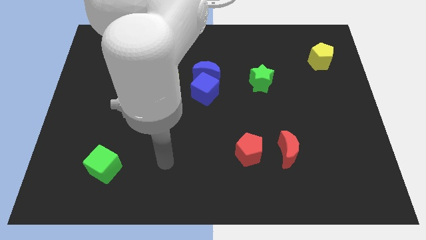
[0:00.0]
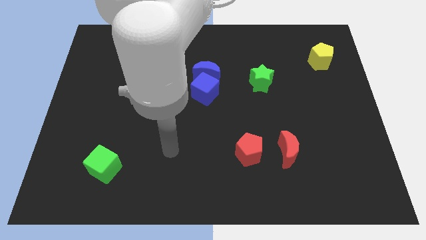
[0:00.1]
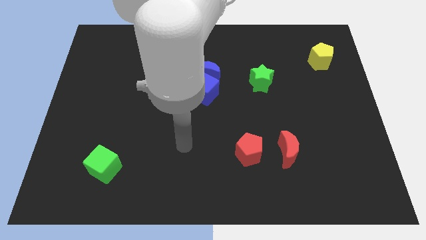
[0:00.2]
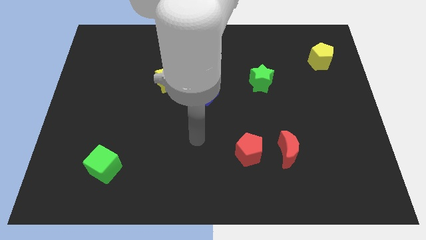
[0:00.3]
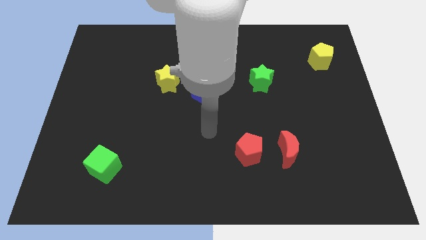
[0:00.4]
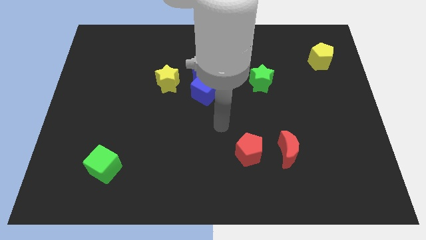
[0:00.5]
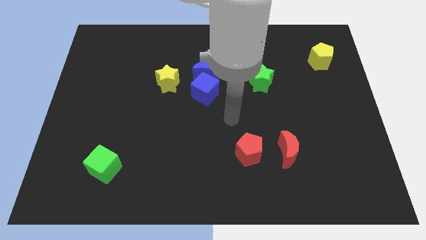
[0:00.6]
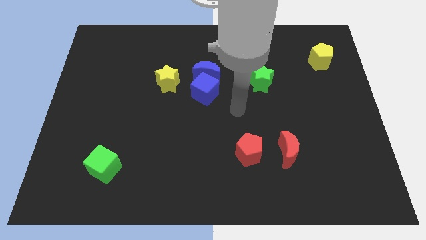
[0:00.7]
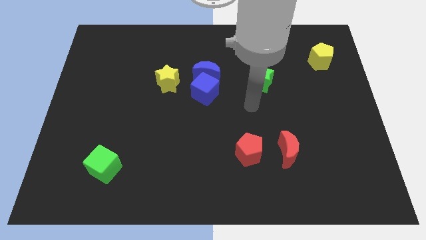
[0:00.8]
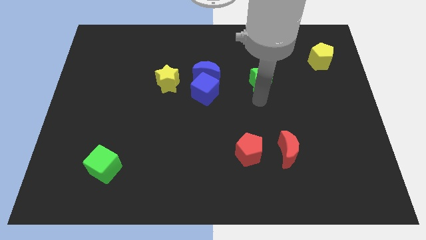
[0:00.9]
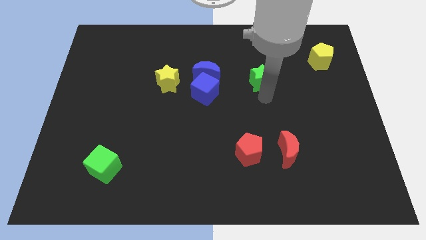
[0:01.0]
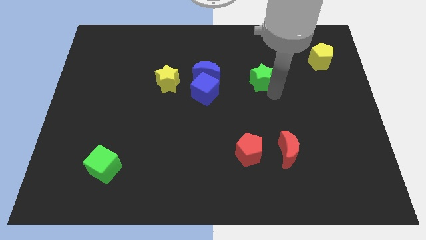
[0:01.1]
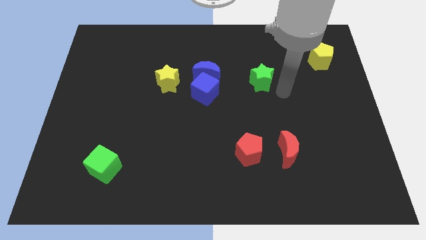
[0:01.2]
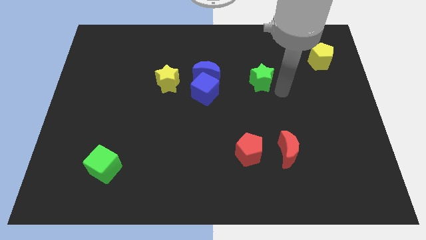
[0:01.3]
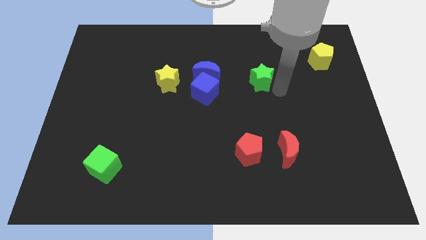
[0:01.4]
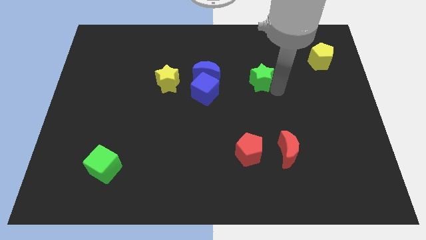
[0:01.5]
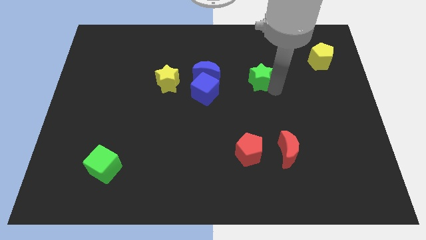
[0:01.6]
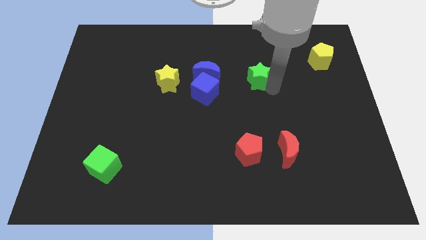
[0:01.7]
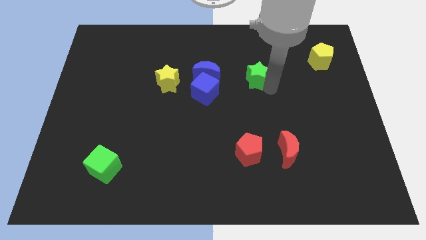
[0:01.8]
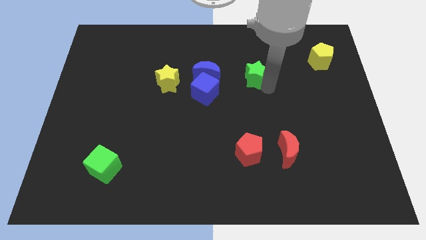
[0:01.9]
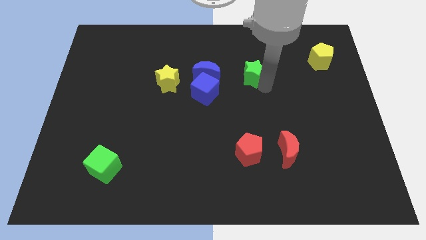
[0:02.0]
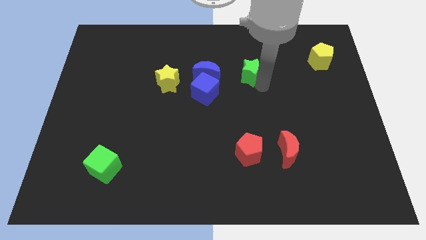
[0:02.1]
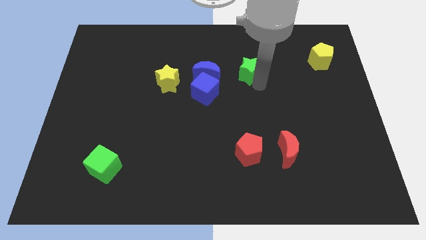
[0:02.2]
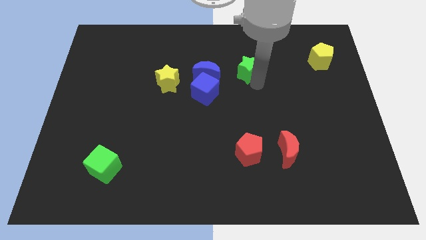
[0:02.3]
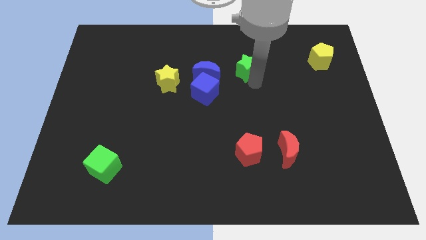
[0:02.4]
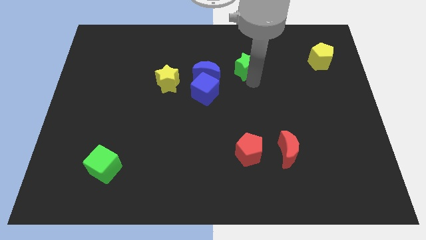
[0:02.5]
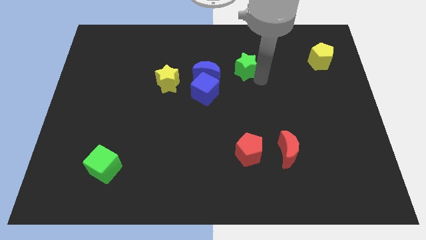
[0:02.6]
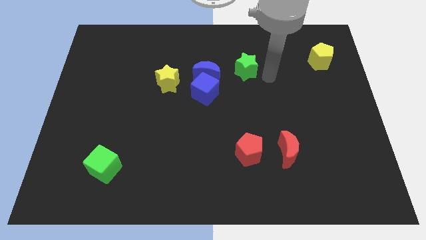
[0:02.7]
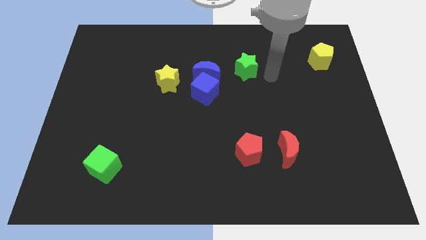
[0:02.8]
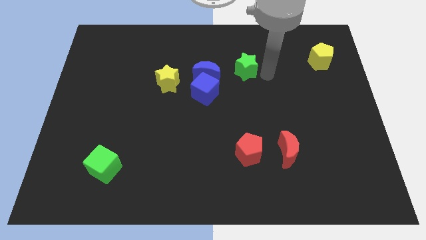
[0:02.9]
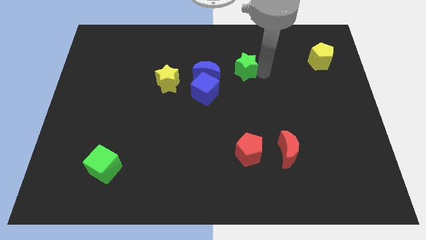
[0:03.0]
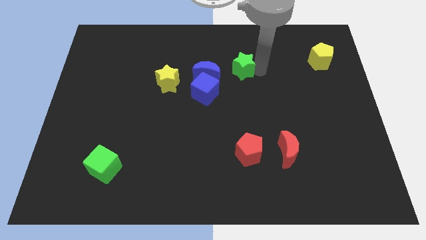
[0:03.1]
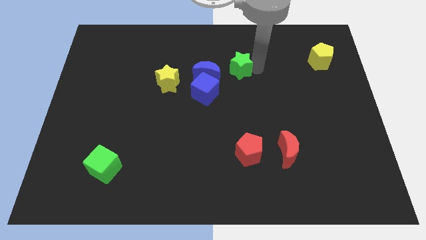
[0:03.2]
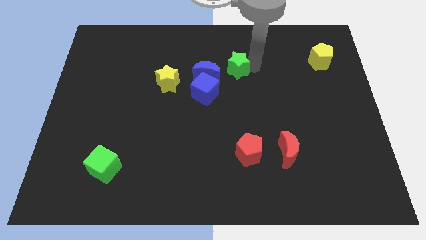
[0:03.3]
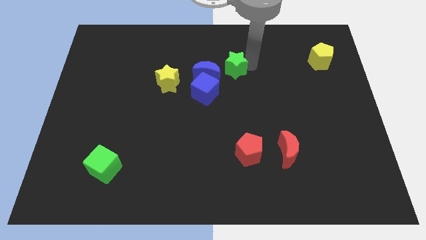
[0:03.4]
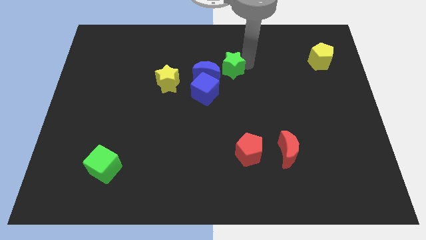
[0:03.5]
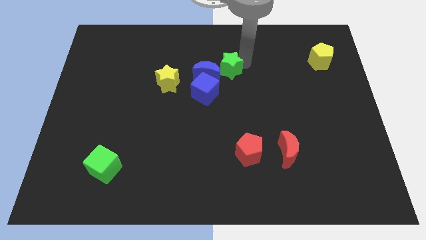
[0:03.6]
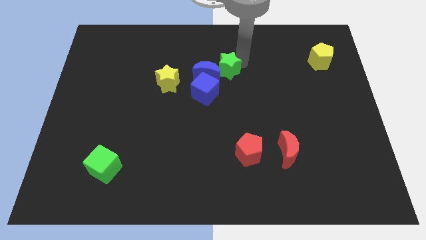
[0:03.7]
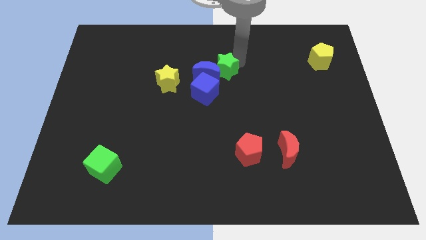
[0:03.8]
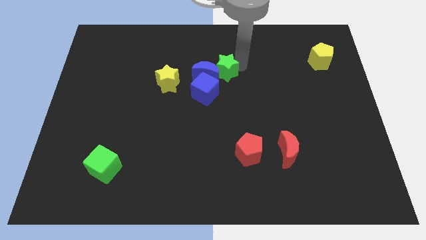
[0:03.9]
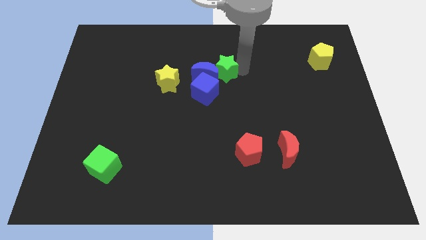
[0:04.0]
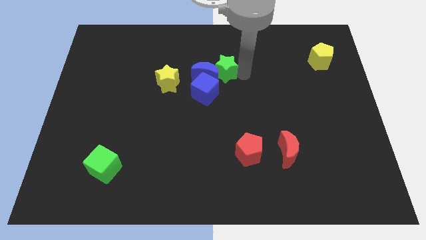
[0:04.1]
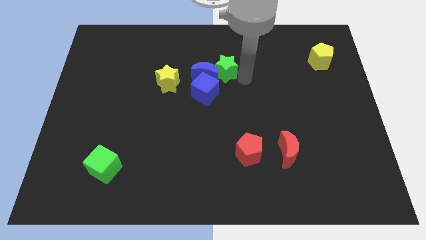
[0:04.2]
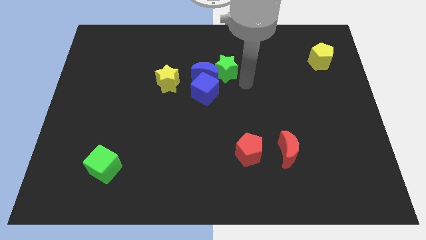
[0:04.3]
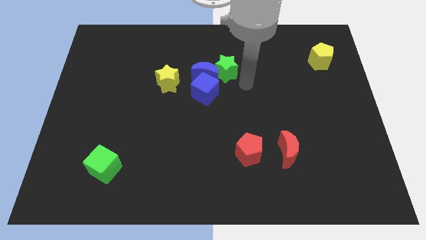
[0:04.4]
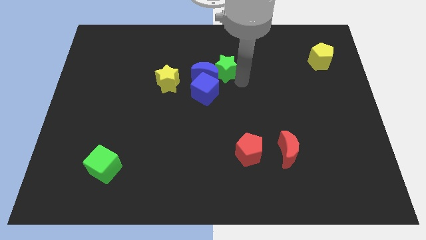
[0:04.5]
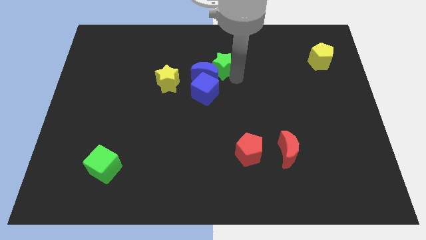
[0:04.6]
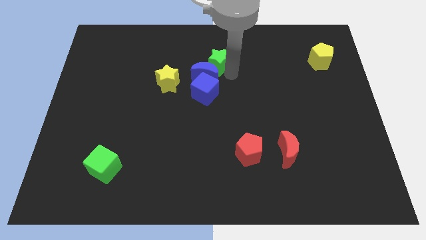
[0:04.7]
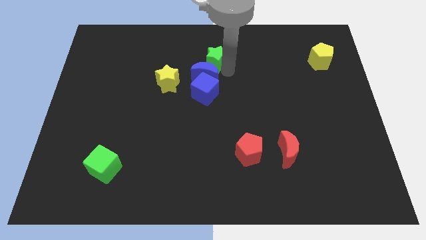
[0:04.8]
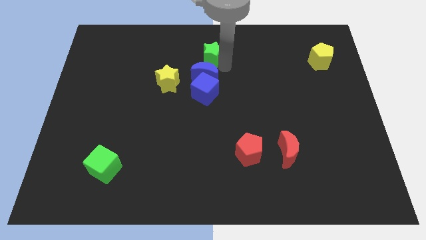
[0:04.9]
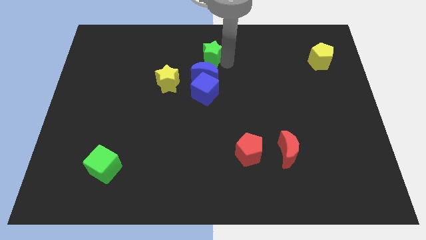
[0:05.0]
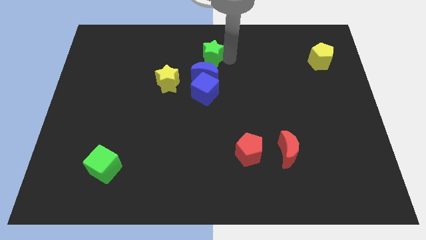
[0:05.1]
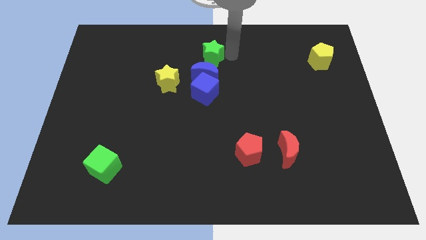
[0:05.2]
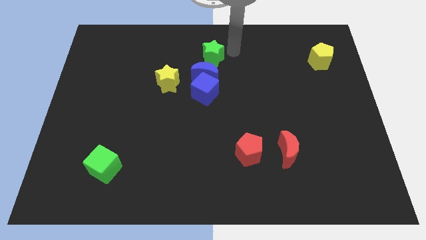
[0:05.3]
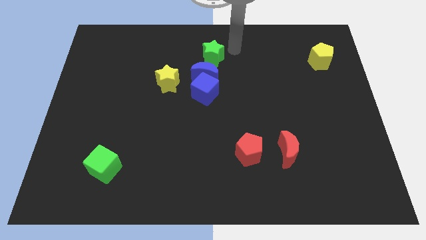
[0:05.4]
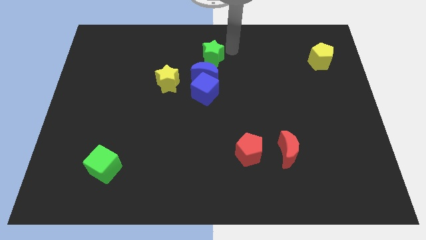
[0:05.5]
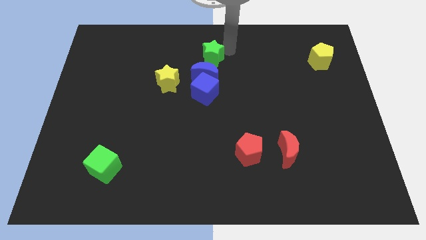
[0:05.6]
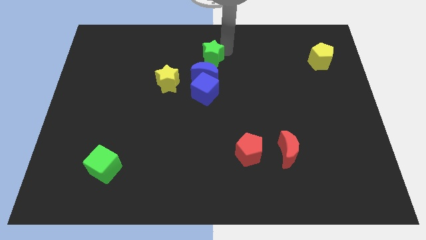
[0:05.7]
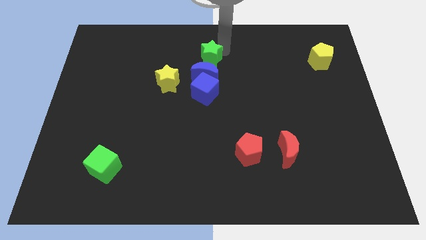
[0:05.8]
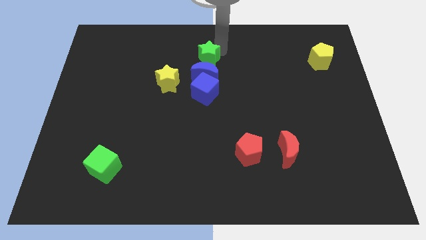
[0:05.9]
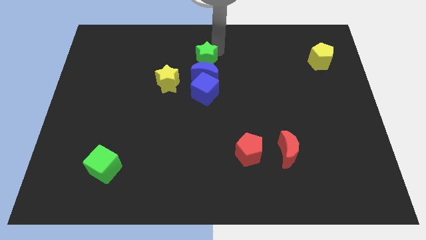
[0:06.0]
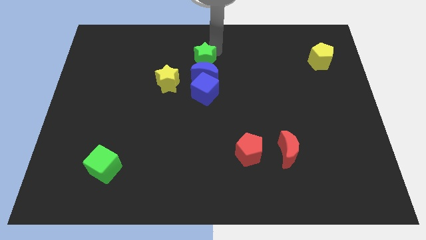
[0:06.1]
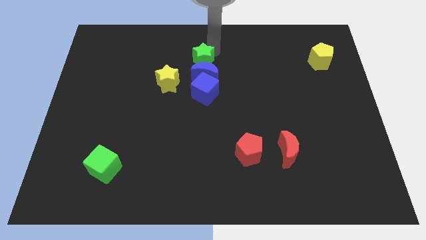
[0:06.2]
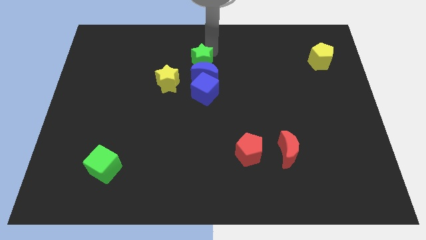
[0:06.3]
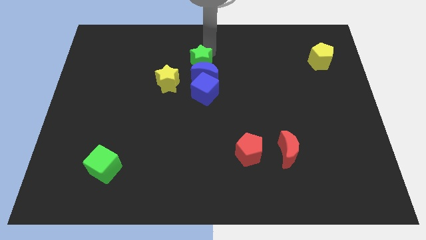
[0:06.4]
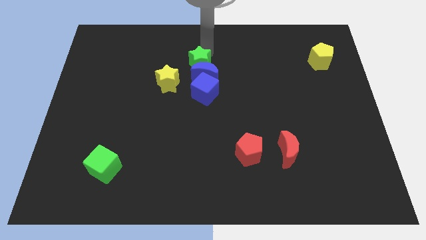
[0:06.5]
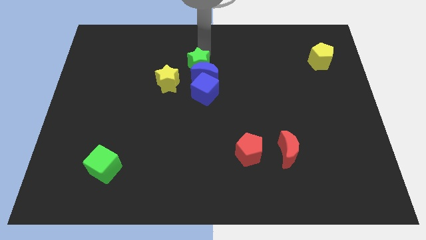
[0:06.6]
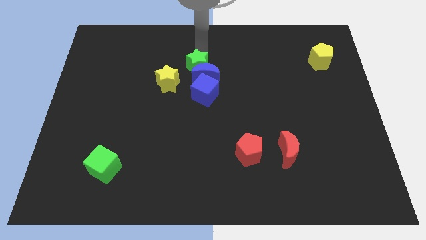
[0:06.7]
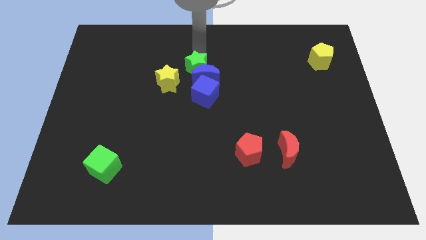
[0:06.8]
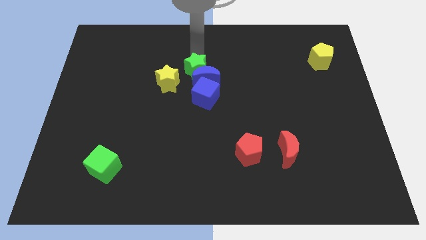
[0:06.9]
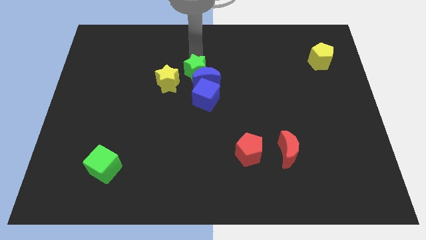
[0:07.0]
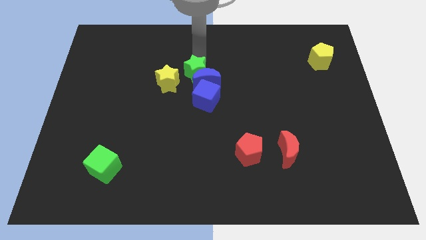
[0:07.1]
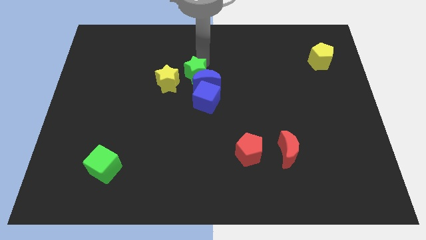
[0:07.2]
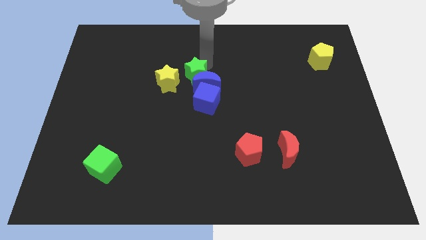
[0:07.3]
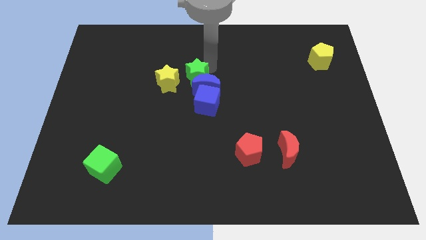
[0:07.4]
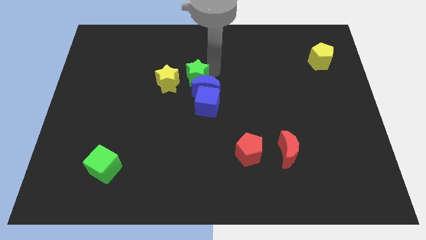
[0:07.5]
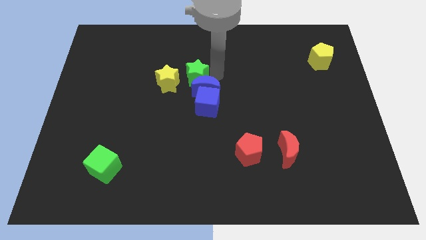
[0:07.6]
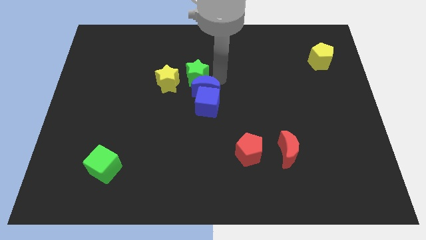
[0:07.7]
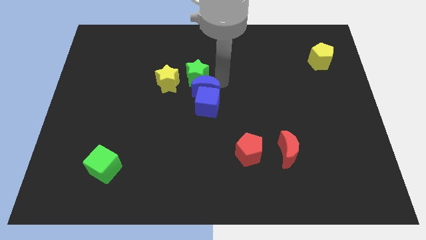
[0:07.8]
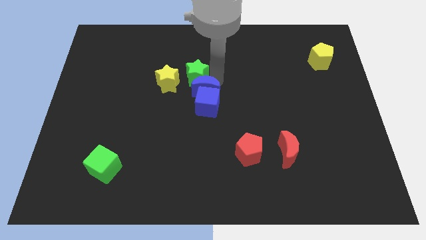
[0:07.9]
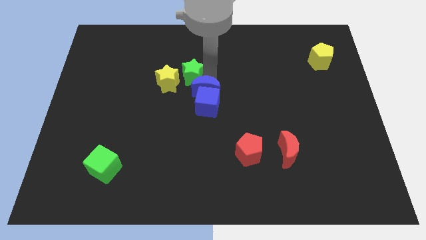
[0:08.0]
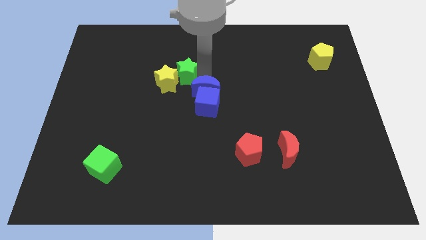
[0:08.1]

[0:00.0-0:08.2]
put the green star towards the yellow star

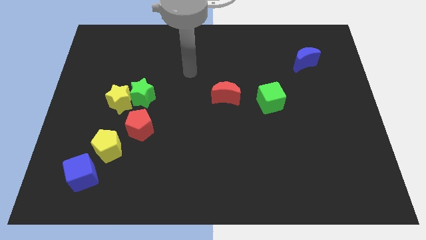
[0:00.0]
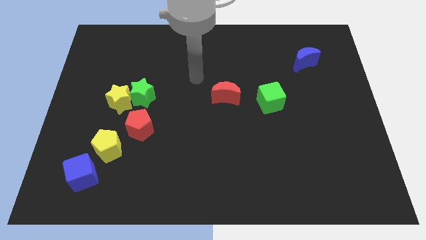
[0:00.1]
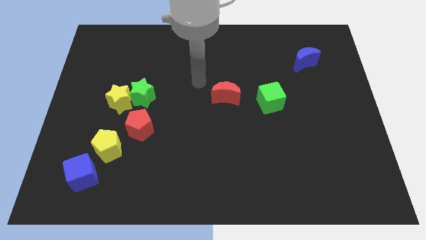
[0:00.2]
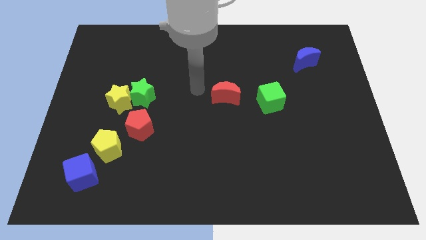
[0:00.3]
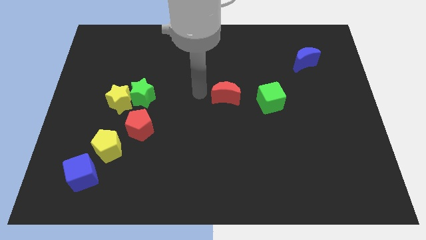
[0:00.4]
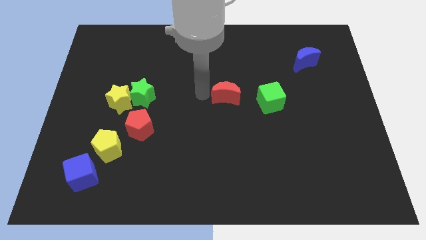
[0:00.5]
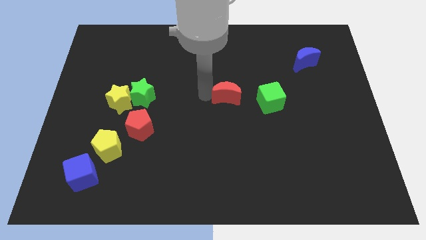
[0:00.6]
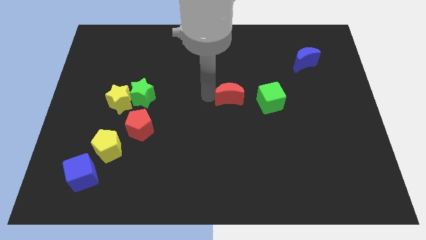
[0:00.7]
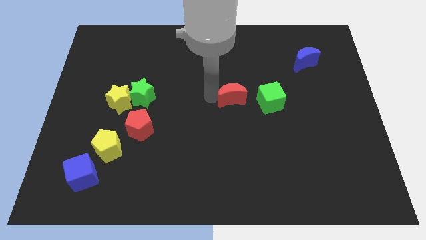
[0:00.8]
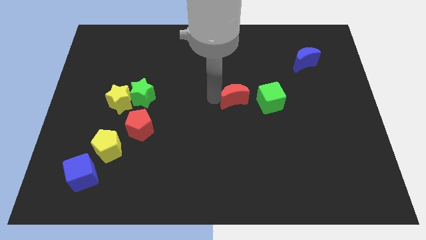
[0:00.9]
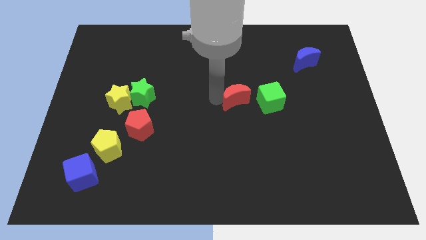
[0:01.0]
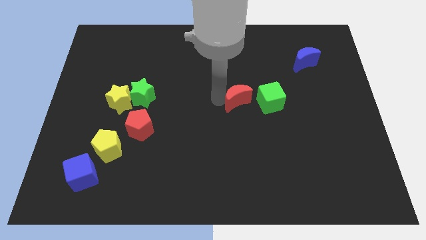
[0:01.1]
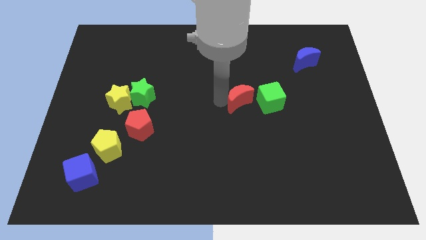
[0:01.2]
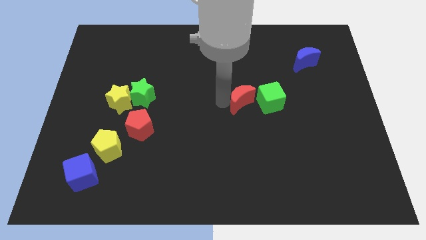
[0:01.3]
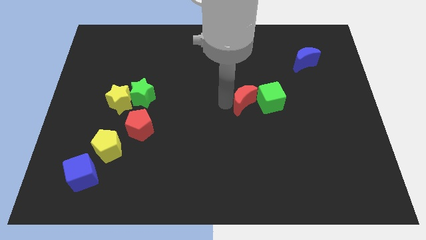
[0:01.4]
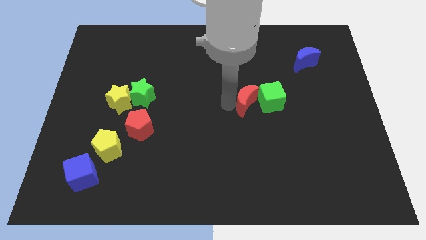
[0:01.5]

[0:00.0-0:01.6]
put the red moon close to the green cube
